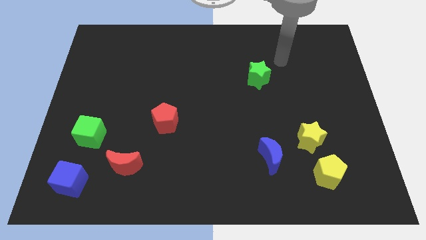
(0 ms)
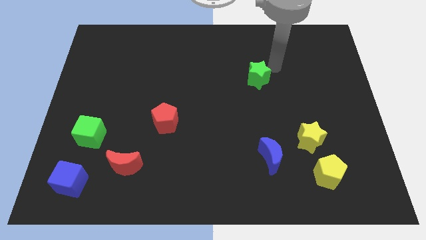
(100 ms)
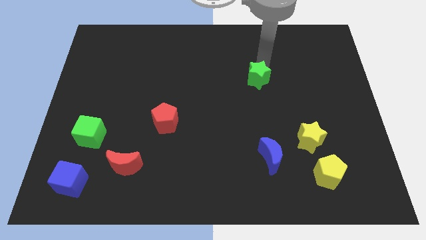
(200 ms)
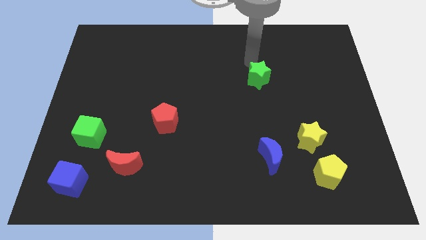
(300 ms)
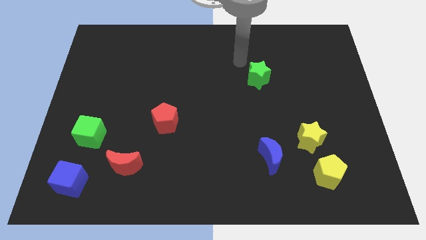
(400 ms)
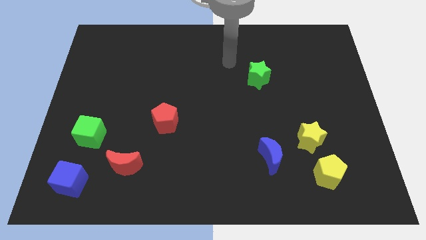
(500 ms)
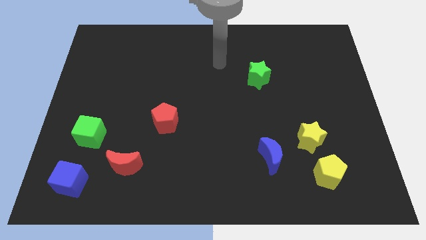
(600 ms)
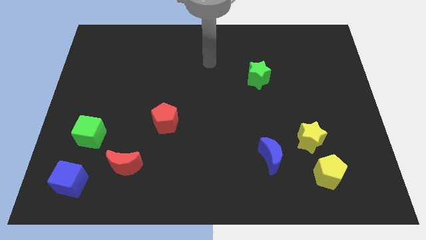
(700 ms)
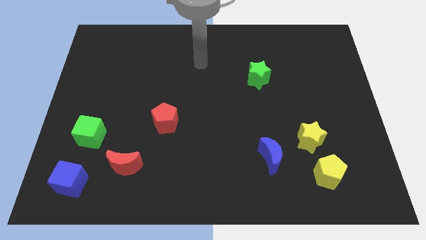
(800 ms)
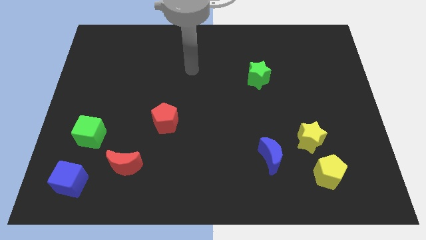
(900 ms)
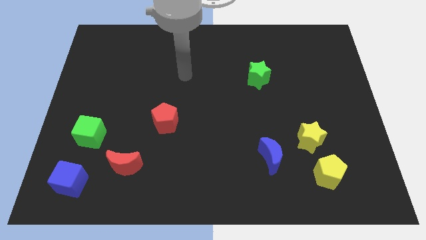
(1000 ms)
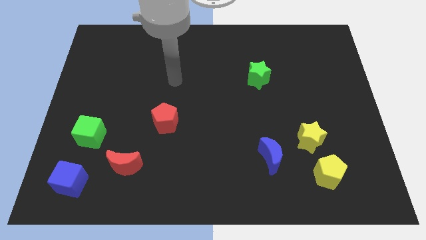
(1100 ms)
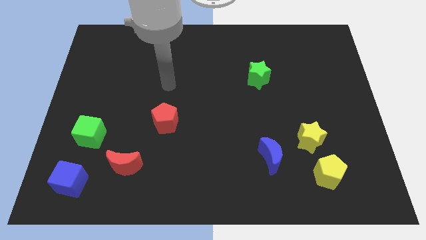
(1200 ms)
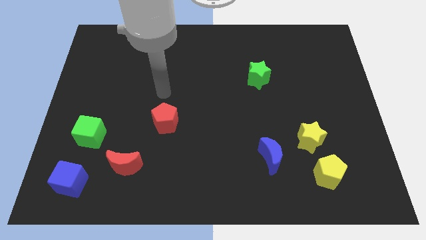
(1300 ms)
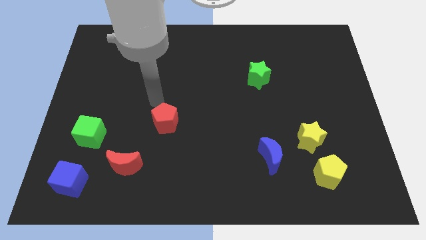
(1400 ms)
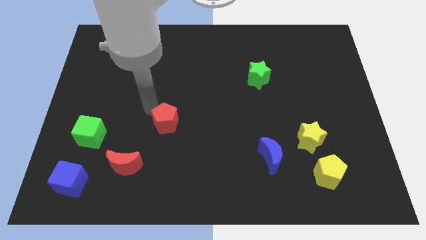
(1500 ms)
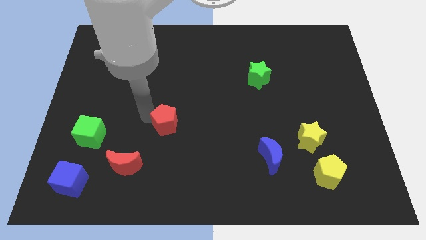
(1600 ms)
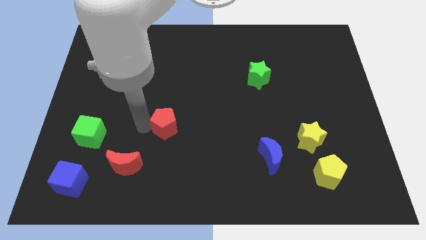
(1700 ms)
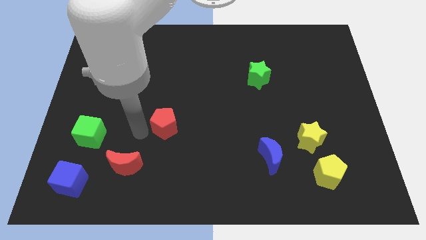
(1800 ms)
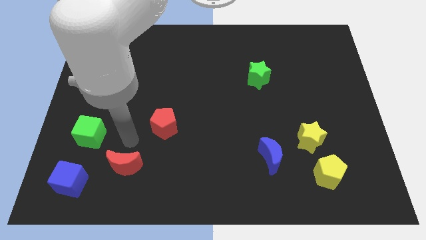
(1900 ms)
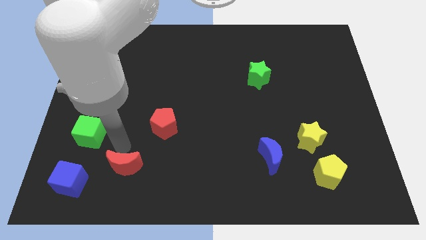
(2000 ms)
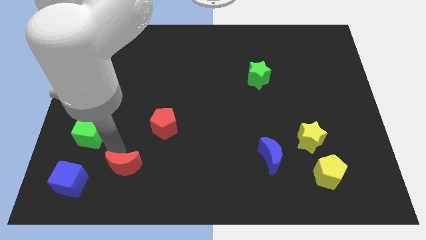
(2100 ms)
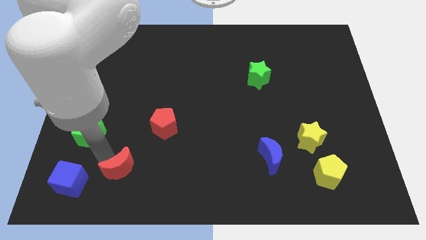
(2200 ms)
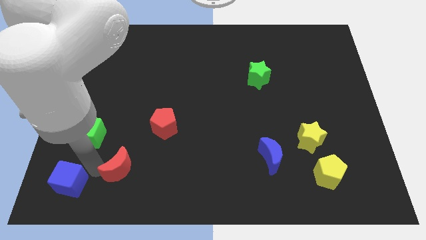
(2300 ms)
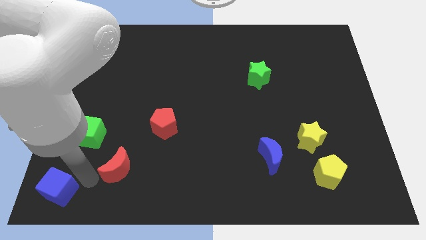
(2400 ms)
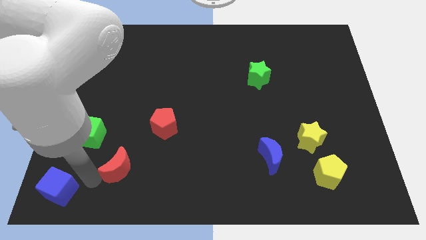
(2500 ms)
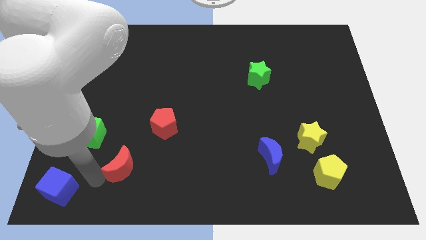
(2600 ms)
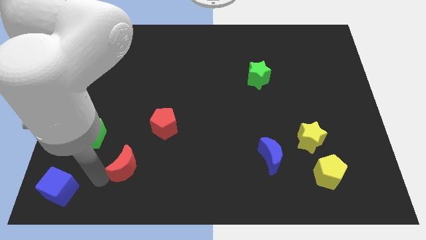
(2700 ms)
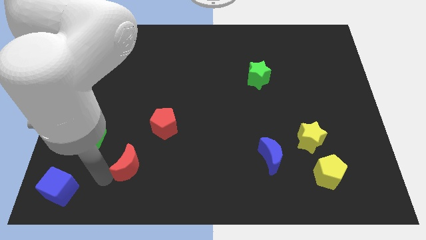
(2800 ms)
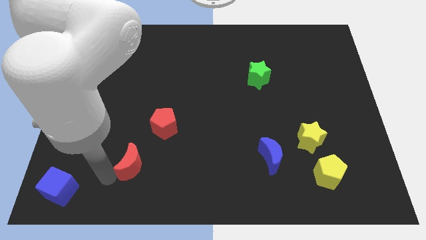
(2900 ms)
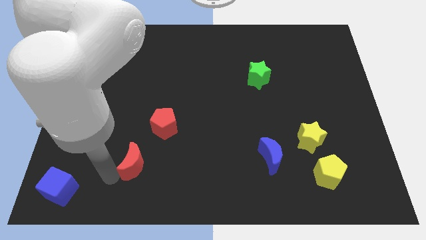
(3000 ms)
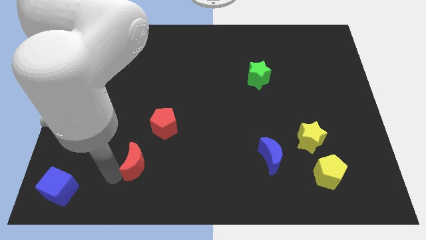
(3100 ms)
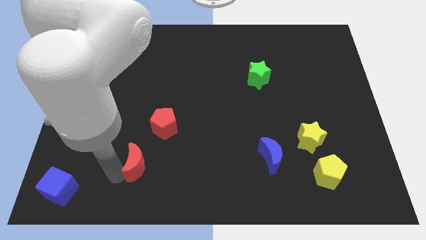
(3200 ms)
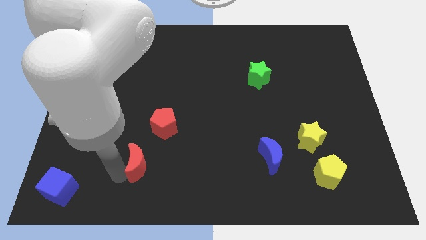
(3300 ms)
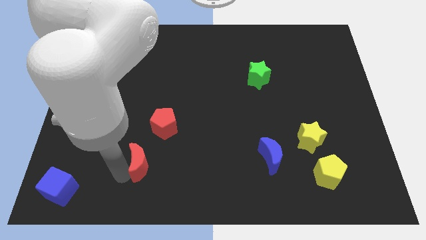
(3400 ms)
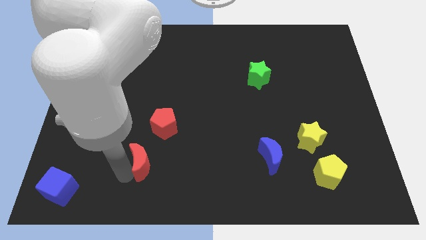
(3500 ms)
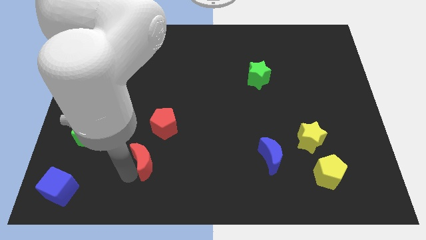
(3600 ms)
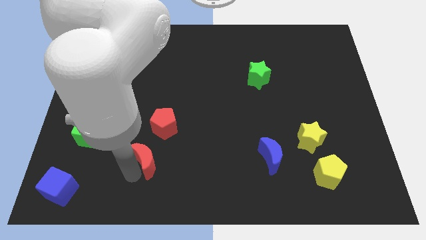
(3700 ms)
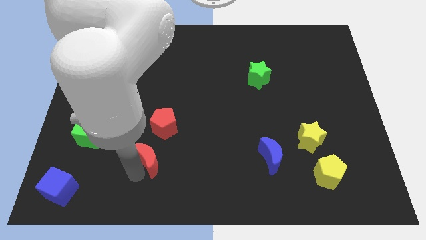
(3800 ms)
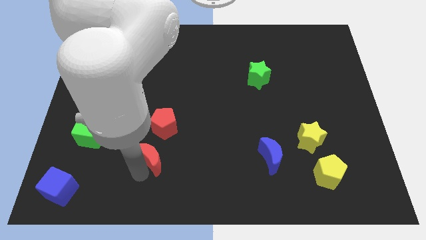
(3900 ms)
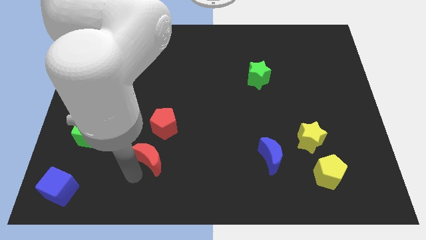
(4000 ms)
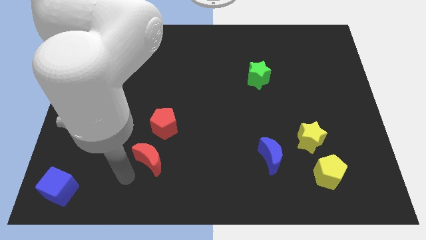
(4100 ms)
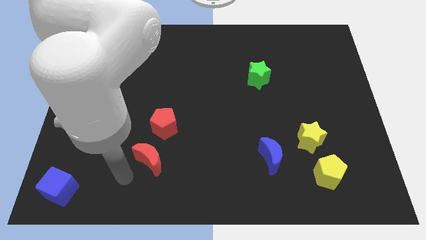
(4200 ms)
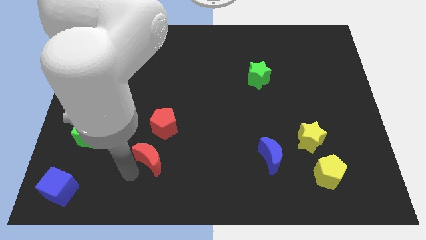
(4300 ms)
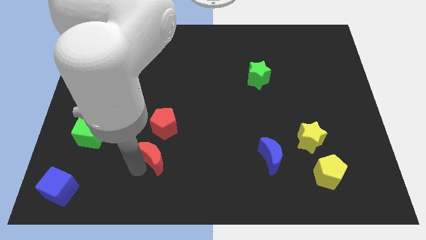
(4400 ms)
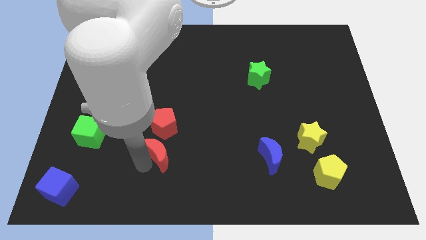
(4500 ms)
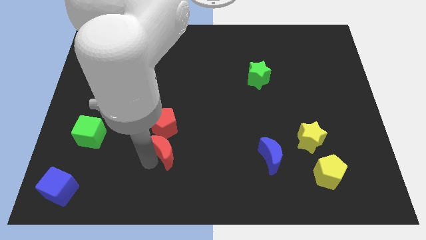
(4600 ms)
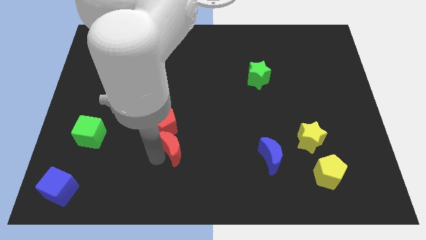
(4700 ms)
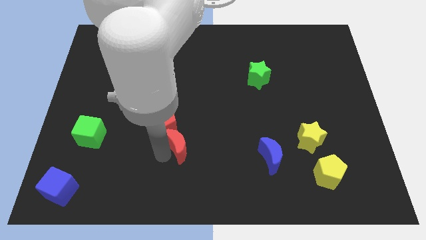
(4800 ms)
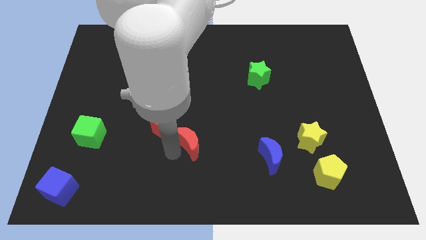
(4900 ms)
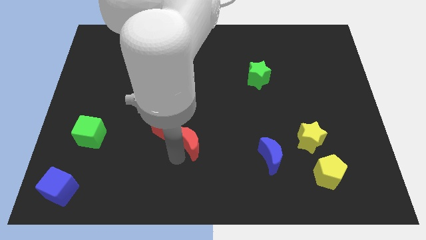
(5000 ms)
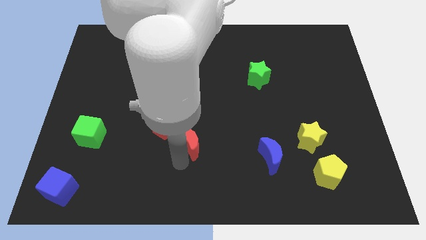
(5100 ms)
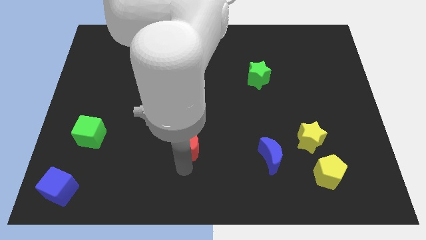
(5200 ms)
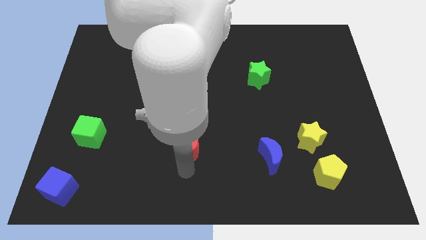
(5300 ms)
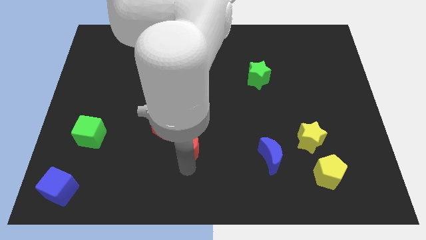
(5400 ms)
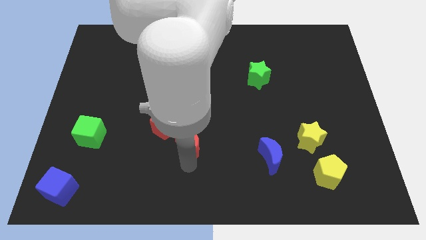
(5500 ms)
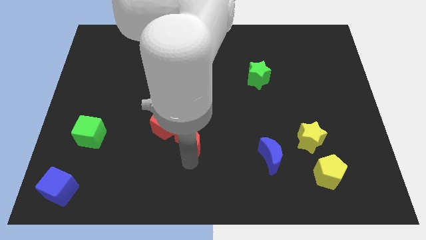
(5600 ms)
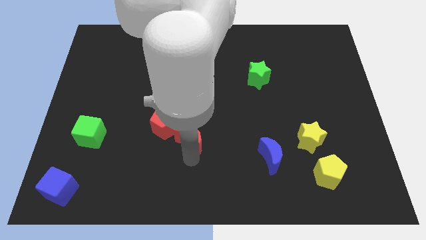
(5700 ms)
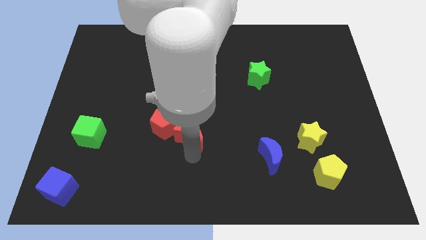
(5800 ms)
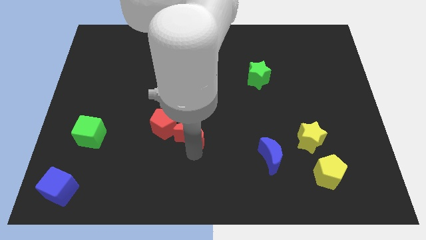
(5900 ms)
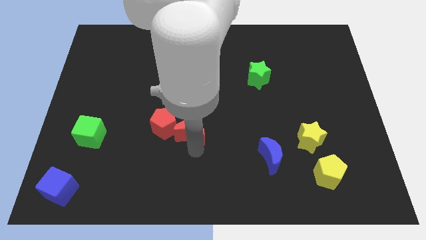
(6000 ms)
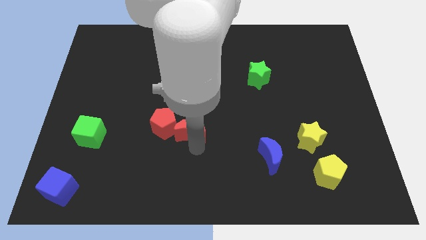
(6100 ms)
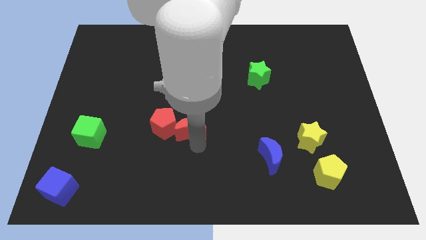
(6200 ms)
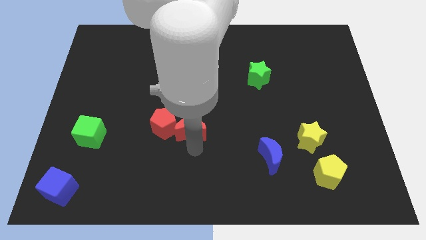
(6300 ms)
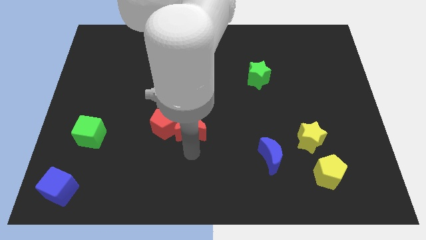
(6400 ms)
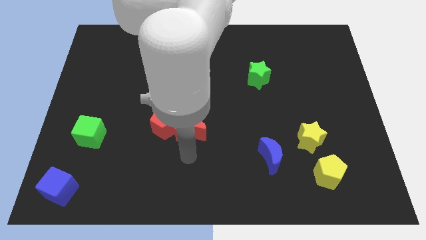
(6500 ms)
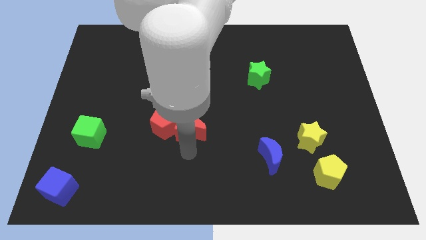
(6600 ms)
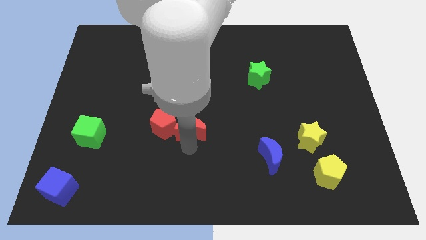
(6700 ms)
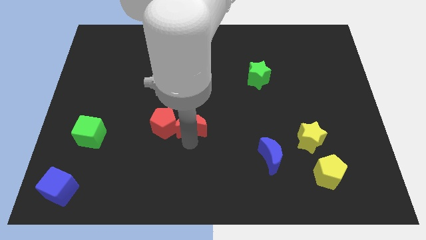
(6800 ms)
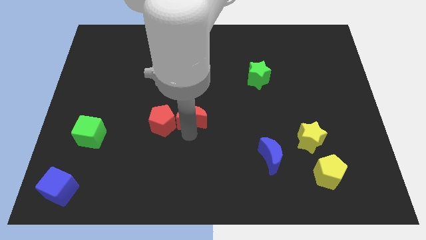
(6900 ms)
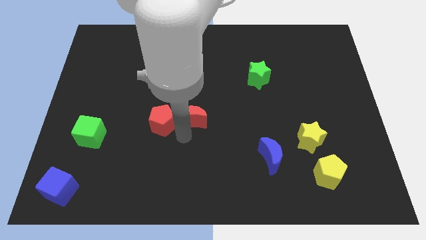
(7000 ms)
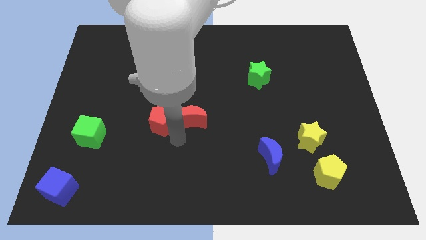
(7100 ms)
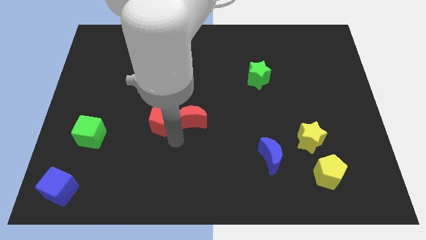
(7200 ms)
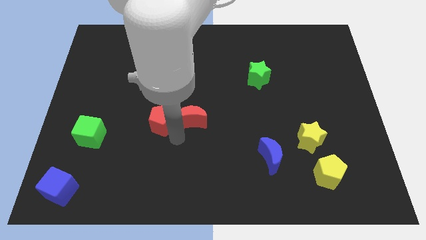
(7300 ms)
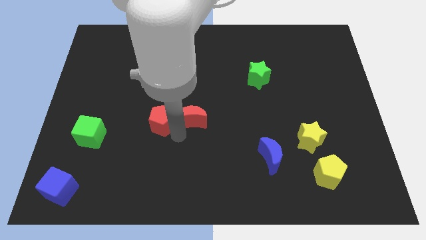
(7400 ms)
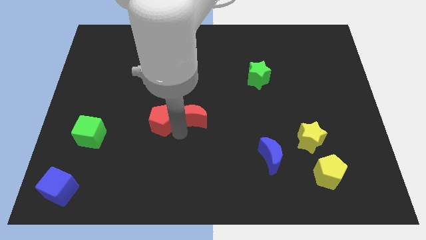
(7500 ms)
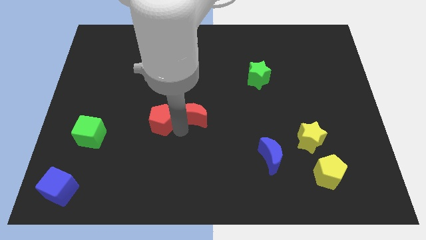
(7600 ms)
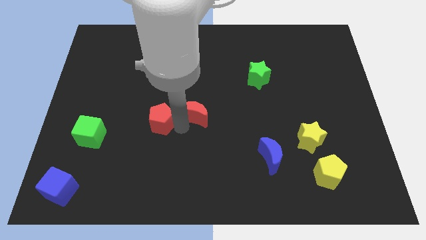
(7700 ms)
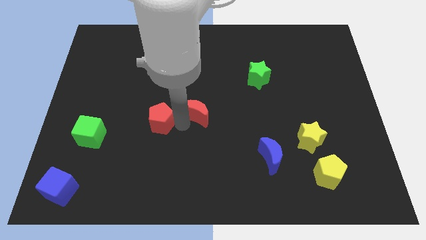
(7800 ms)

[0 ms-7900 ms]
slide the red moon up and to the right
